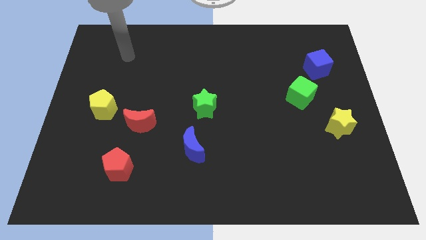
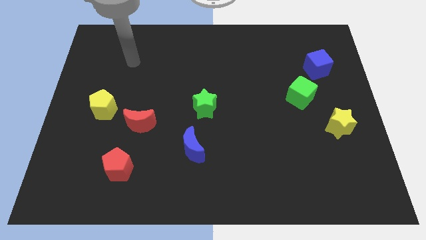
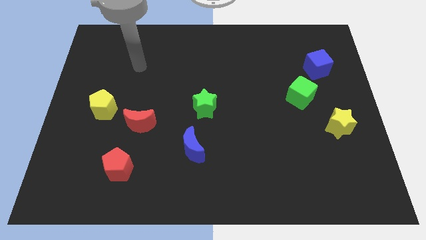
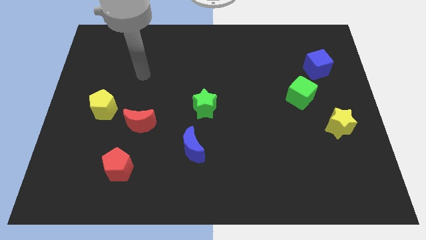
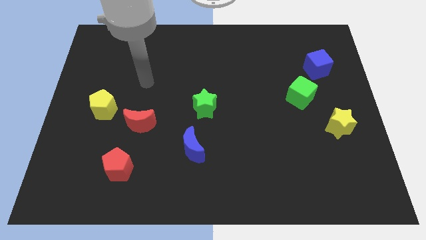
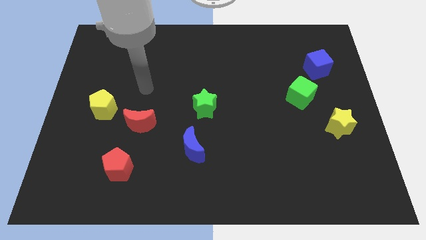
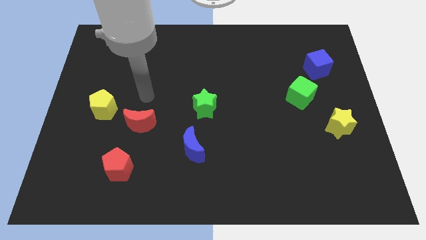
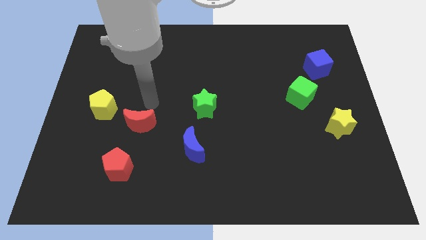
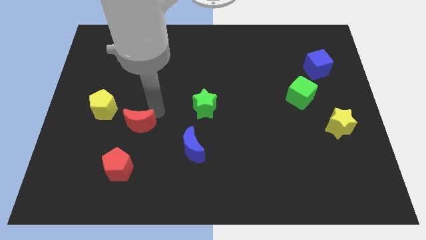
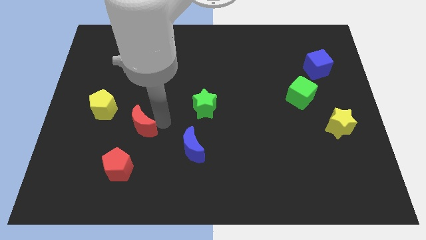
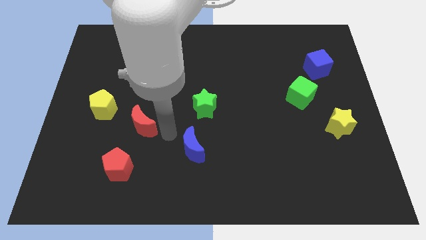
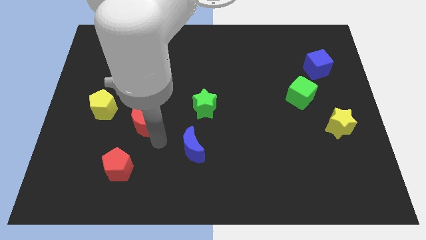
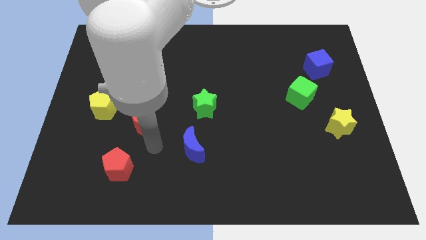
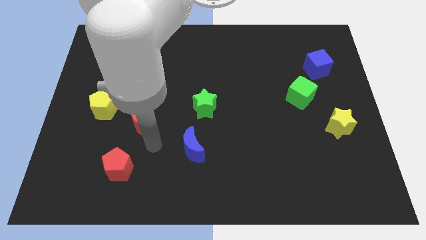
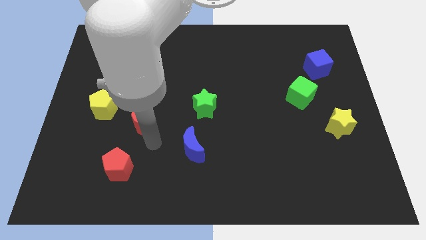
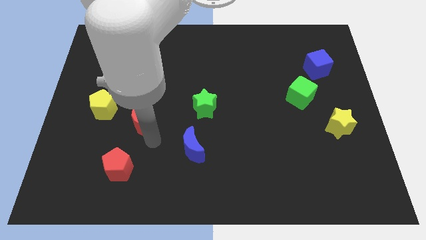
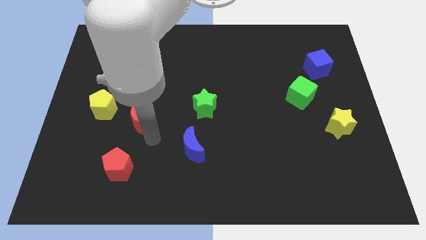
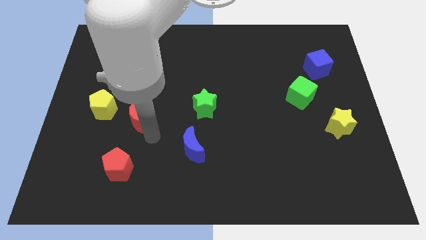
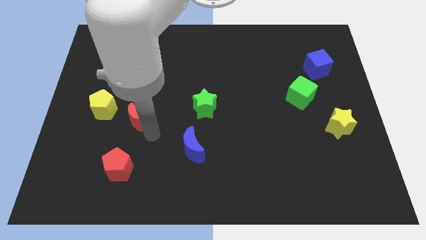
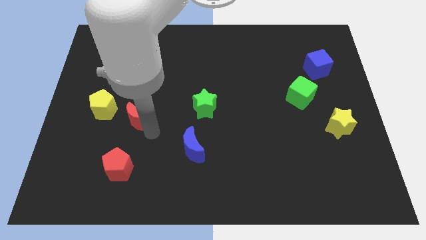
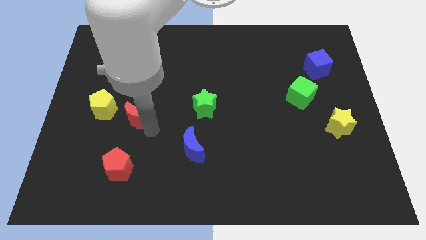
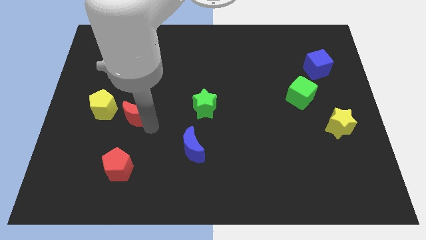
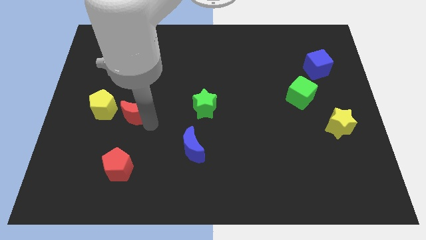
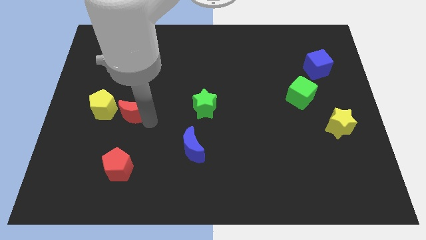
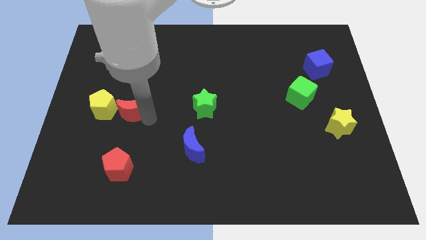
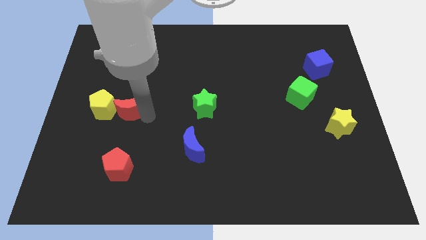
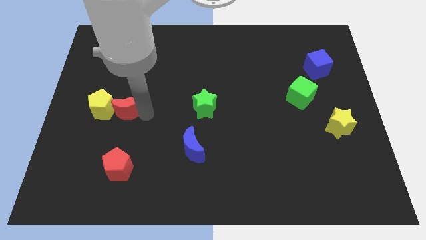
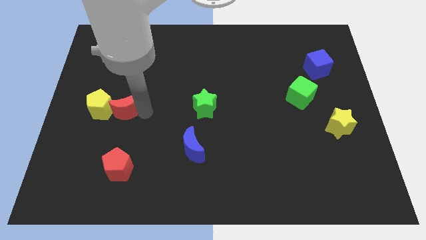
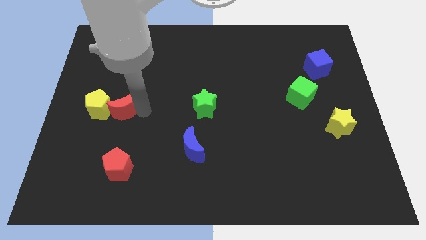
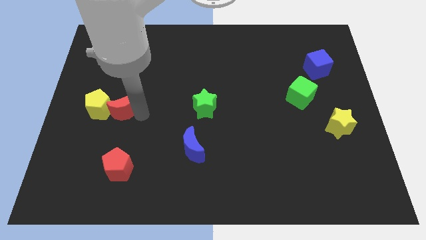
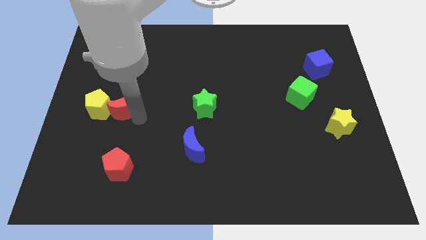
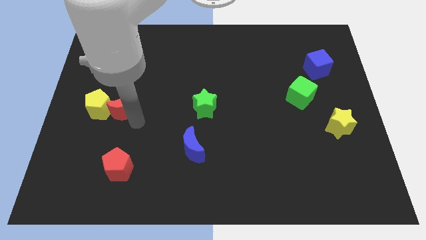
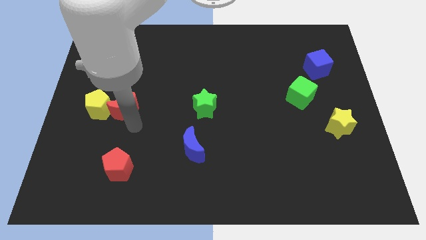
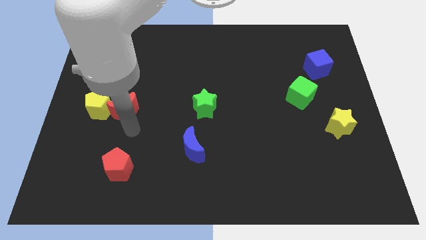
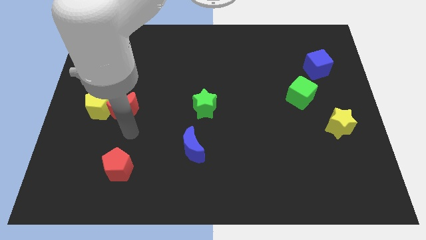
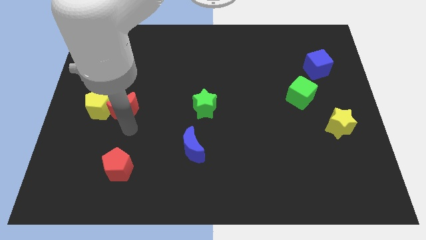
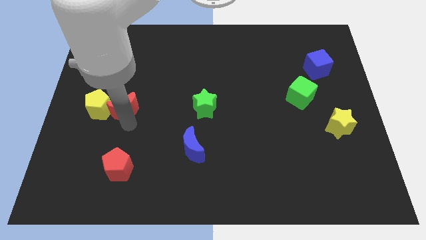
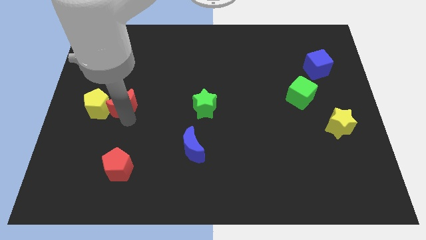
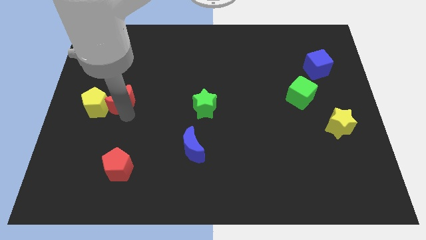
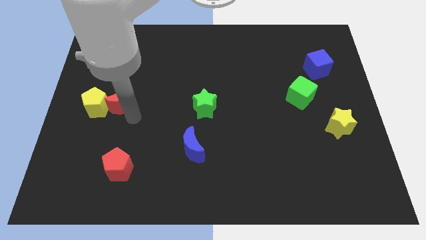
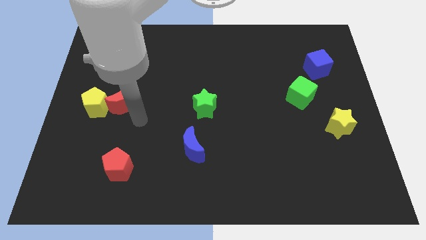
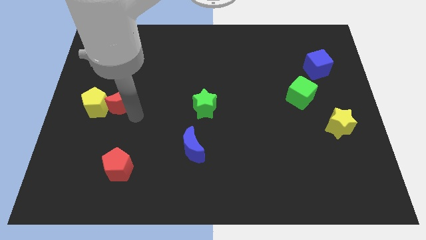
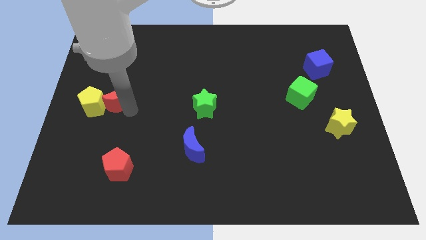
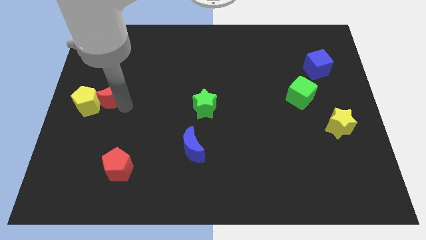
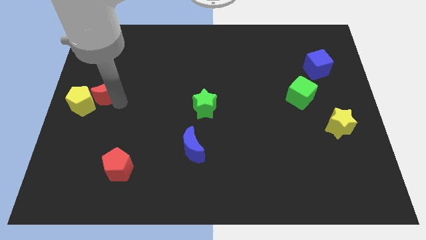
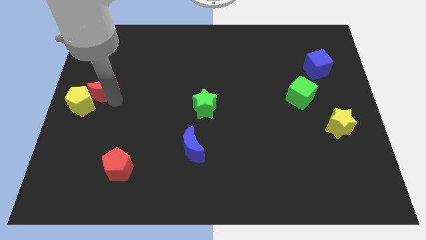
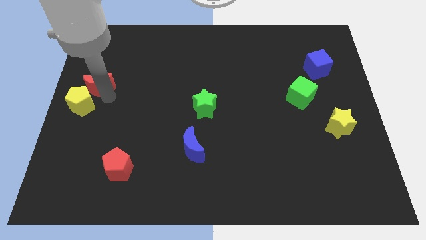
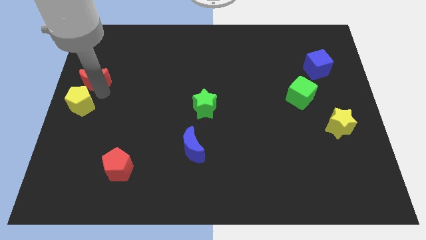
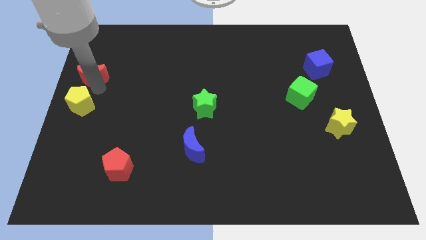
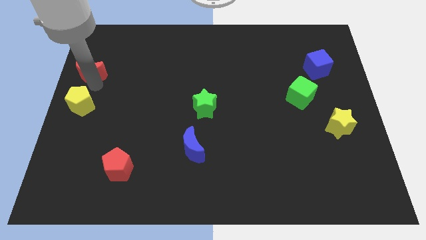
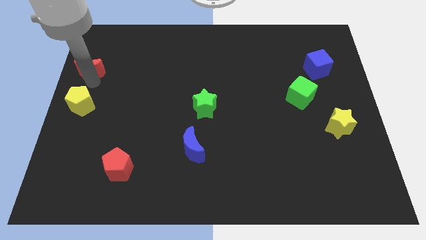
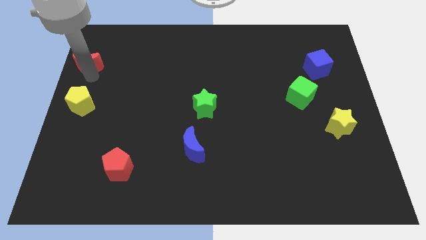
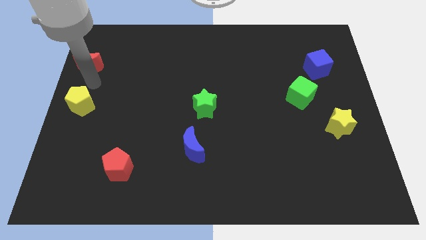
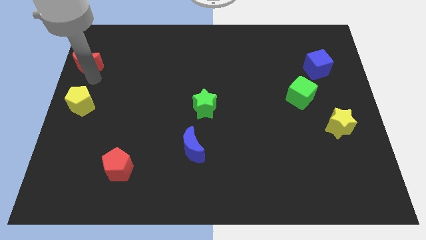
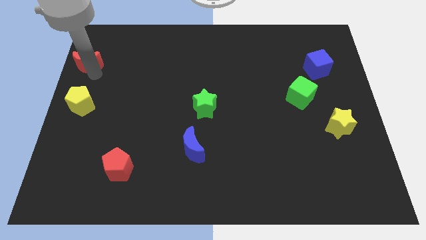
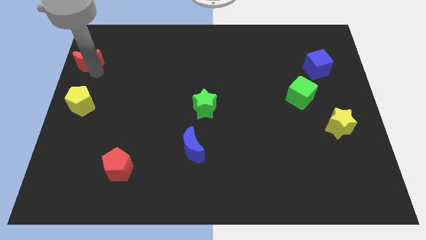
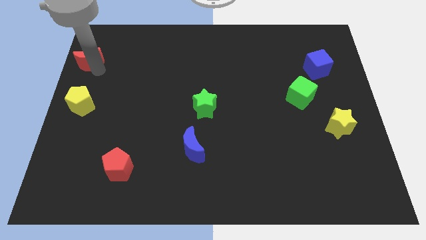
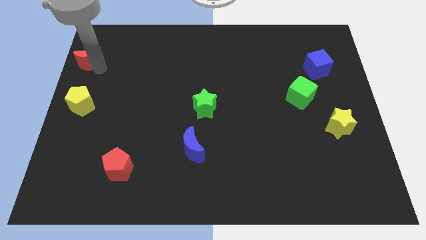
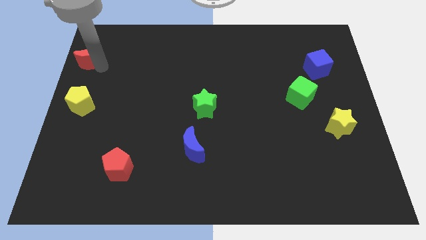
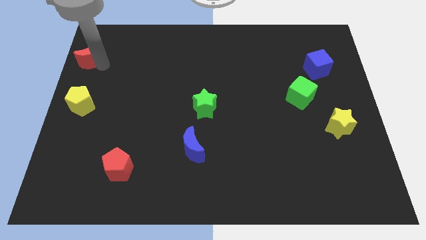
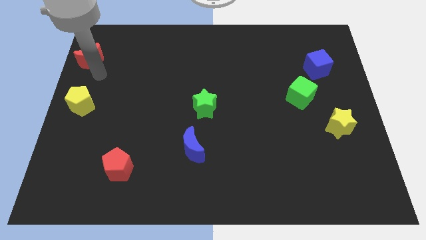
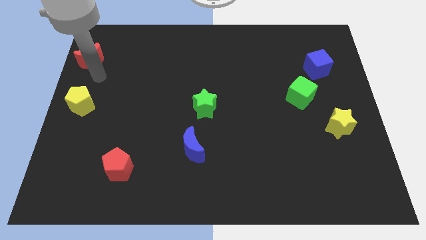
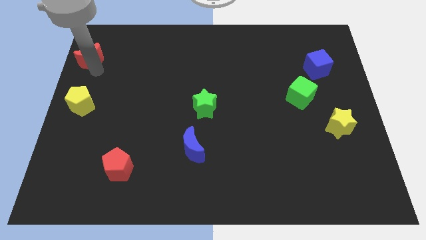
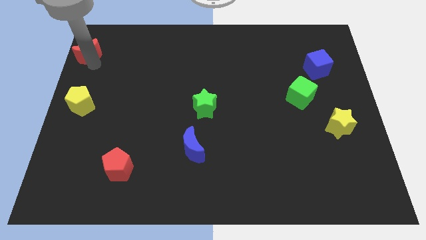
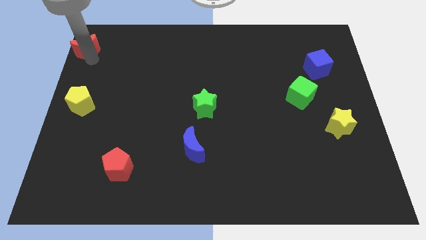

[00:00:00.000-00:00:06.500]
push the red moon to the upper left corner

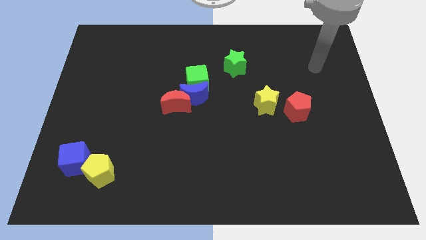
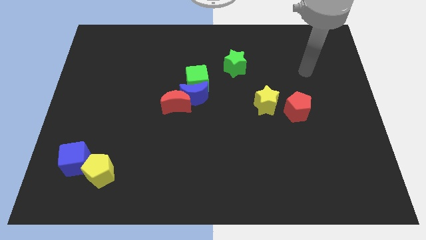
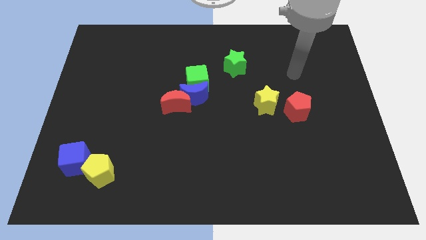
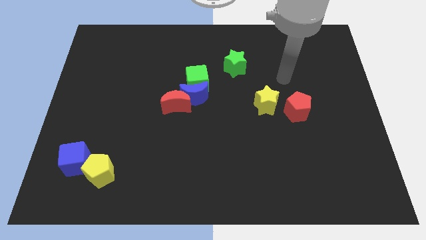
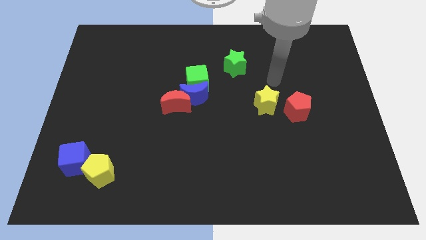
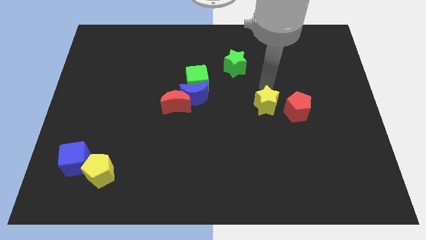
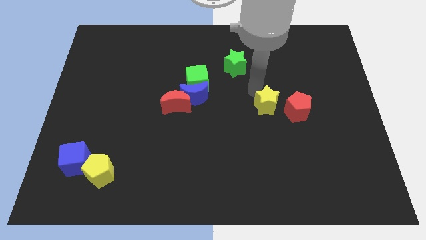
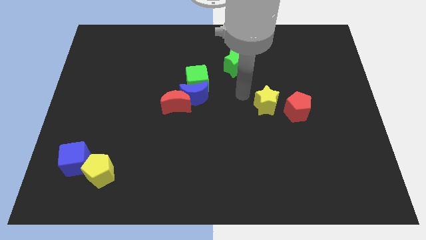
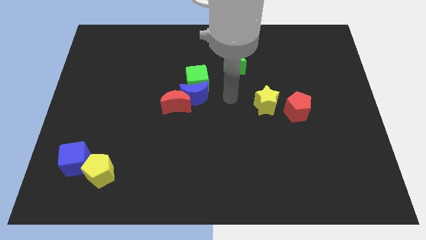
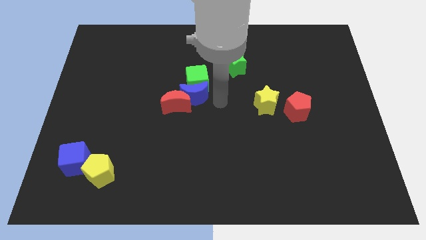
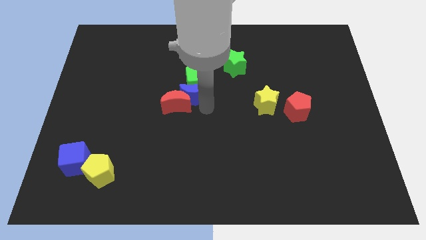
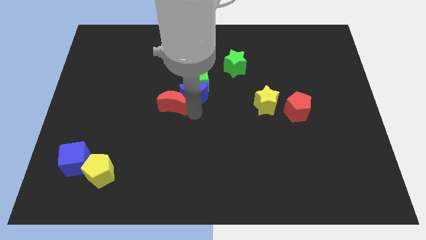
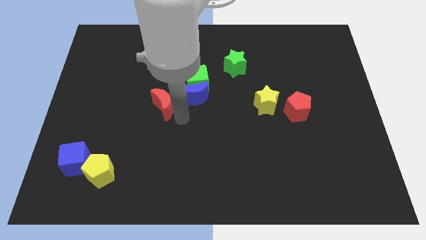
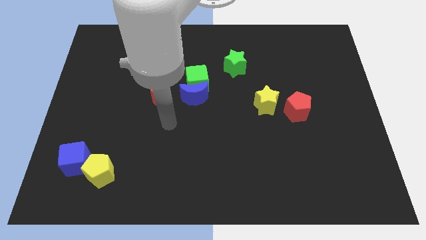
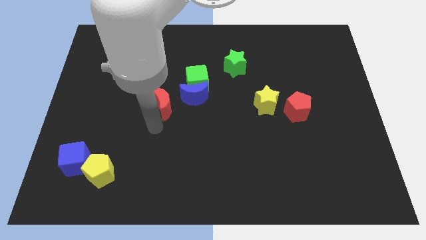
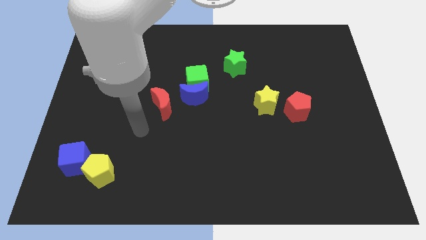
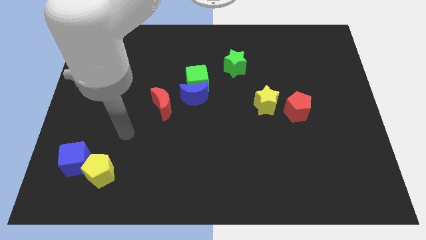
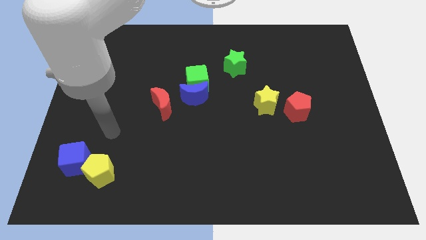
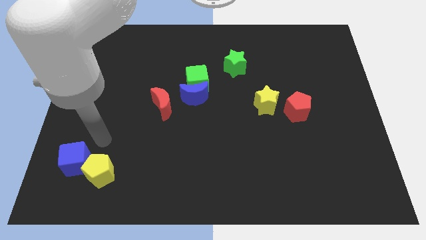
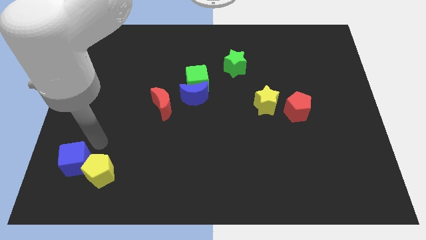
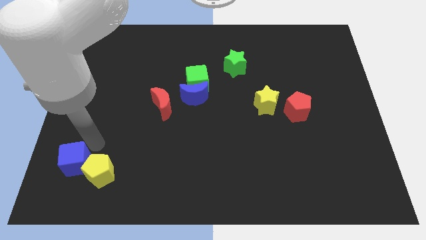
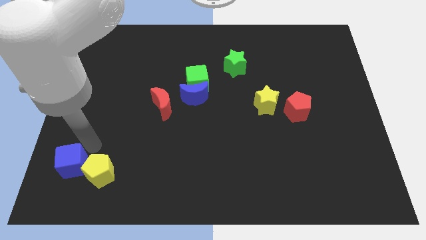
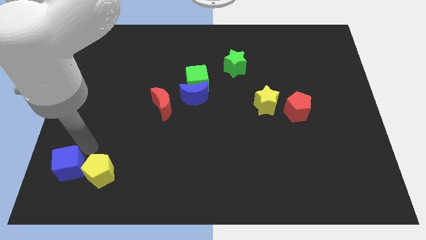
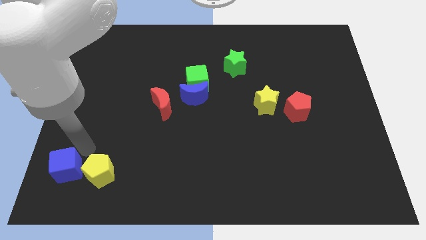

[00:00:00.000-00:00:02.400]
push the blue cube to the lower left corner
